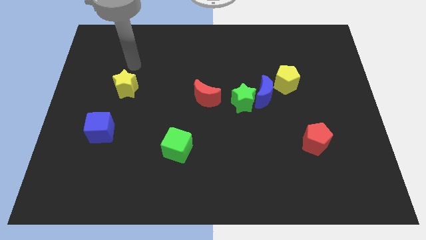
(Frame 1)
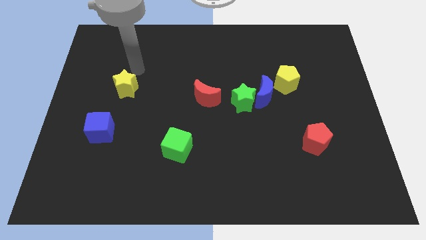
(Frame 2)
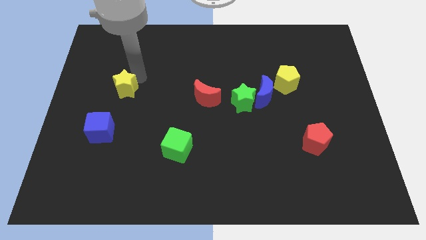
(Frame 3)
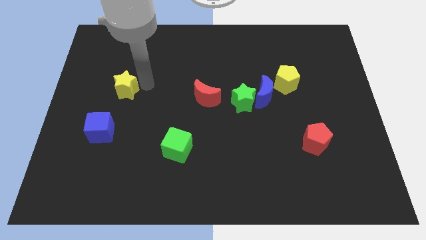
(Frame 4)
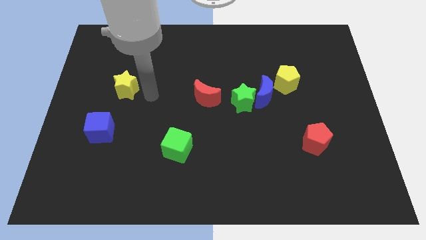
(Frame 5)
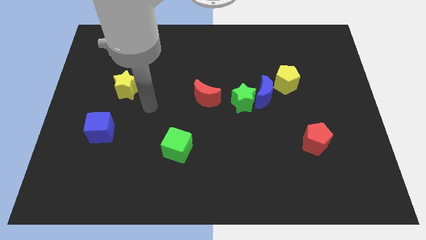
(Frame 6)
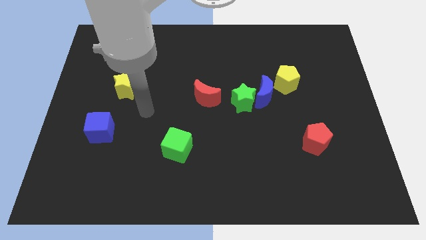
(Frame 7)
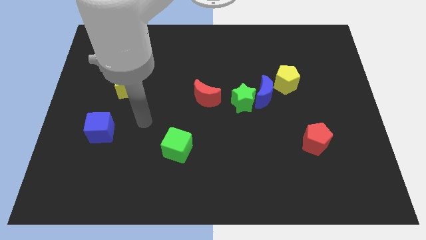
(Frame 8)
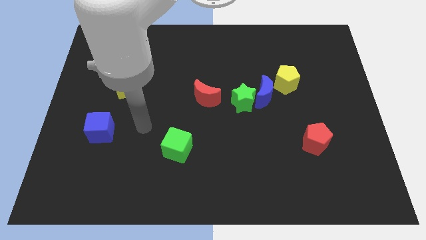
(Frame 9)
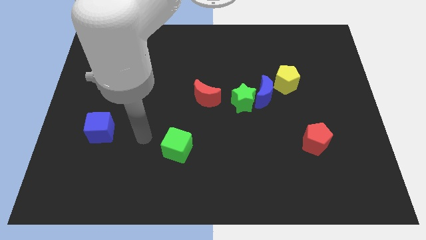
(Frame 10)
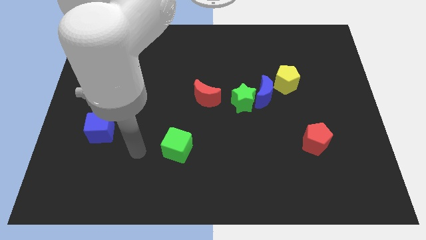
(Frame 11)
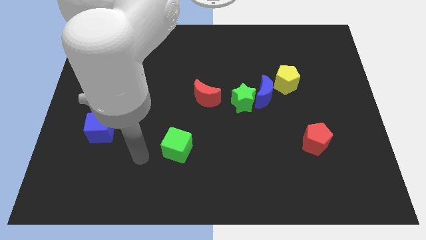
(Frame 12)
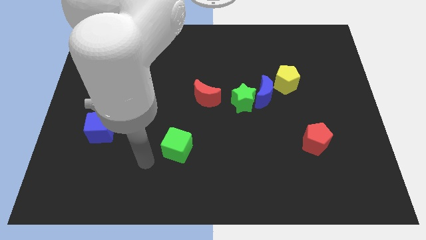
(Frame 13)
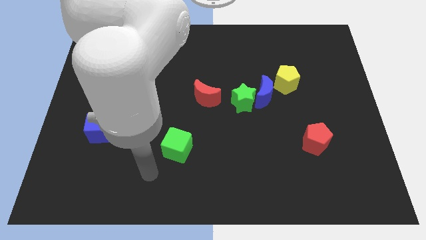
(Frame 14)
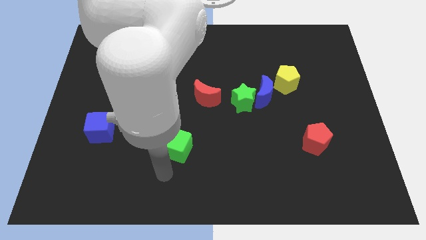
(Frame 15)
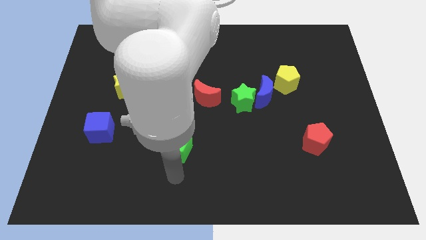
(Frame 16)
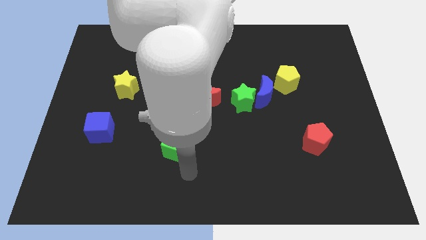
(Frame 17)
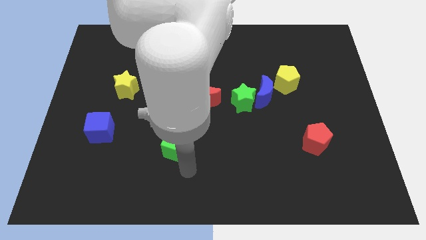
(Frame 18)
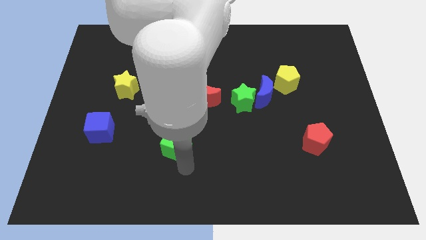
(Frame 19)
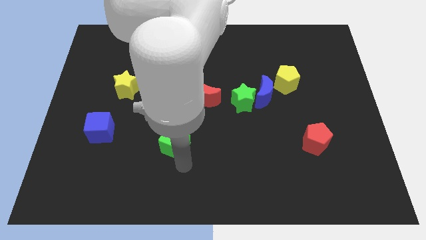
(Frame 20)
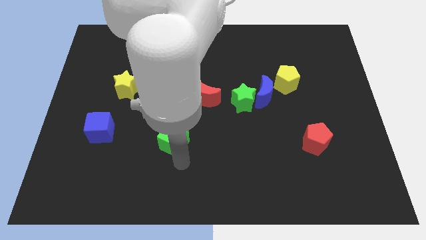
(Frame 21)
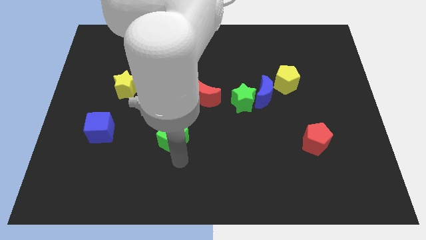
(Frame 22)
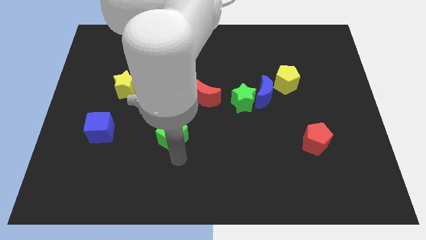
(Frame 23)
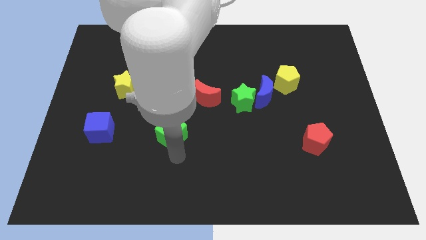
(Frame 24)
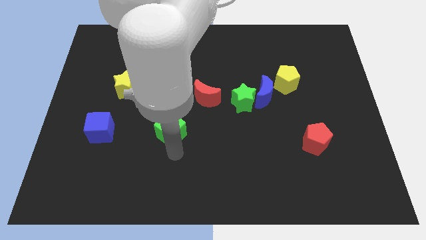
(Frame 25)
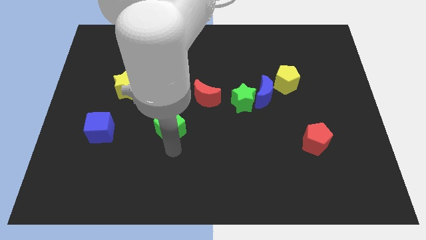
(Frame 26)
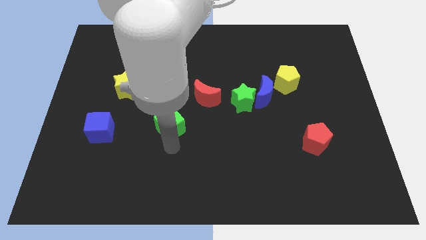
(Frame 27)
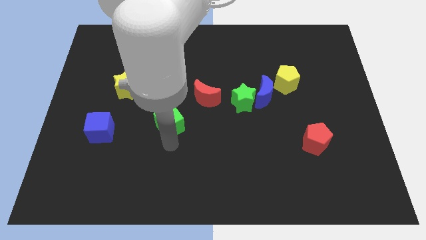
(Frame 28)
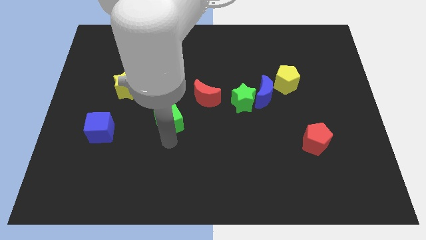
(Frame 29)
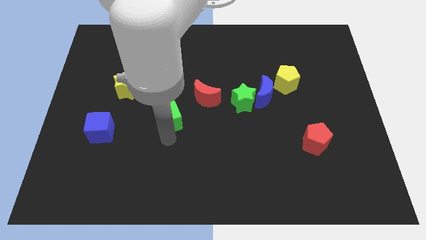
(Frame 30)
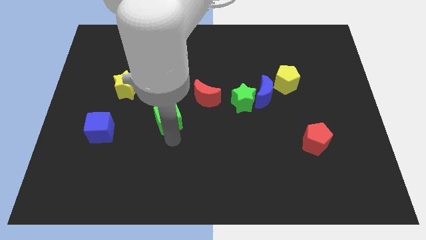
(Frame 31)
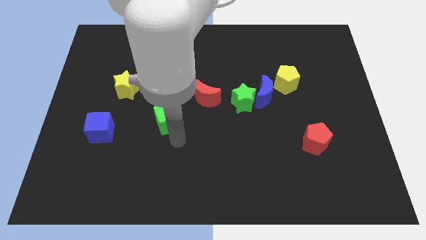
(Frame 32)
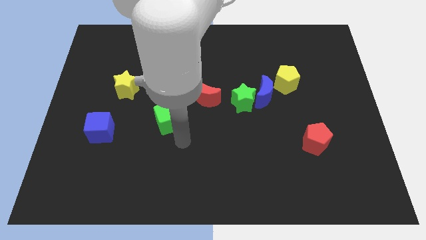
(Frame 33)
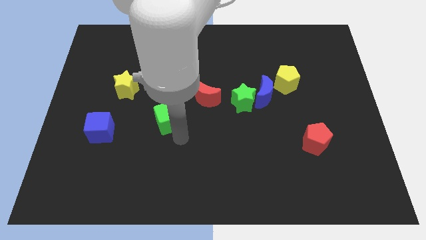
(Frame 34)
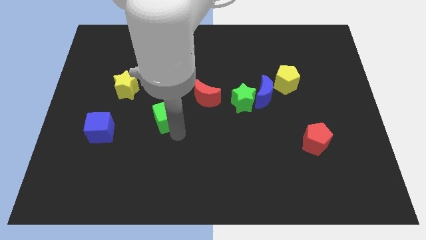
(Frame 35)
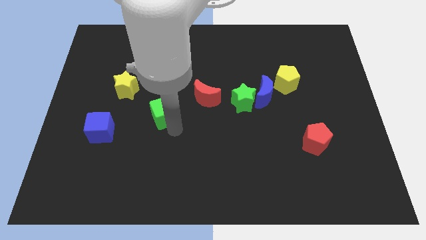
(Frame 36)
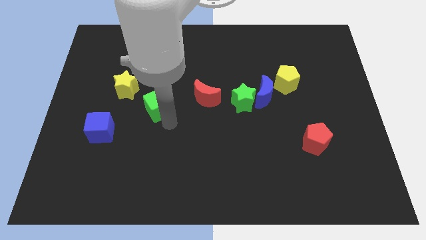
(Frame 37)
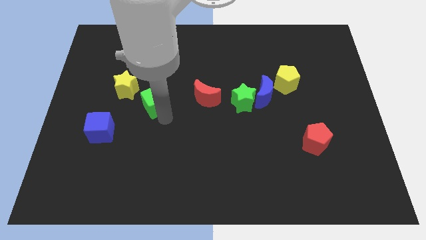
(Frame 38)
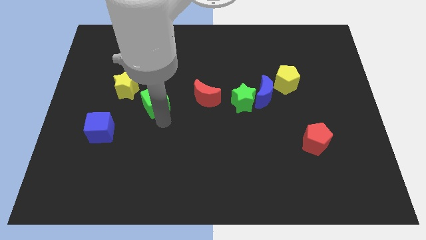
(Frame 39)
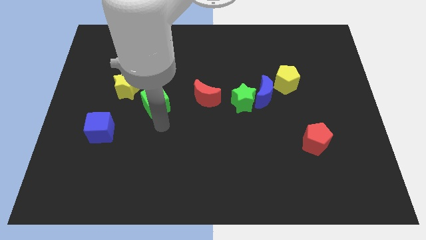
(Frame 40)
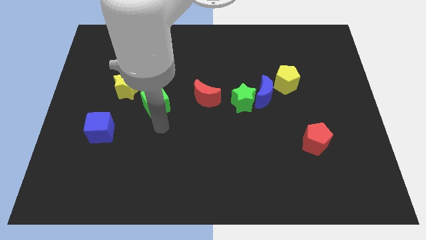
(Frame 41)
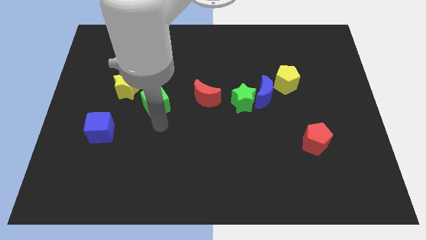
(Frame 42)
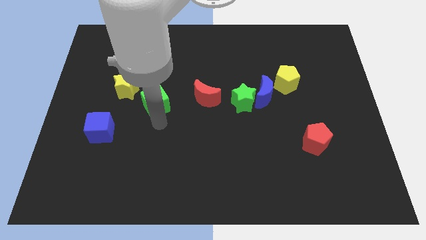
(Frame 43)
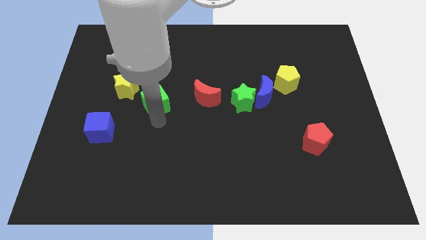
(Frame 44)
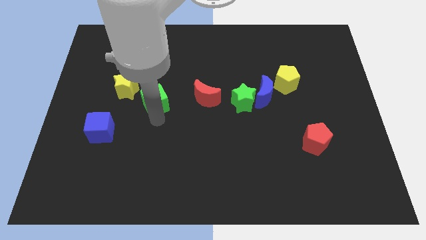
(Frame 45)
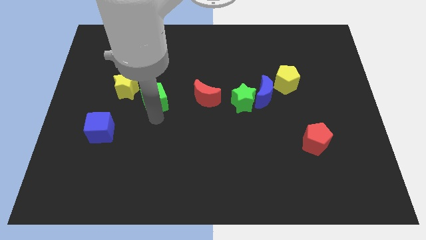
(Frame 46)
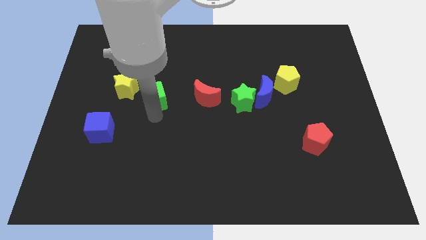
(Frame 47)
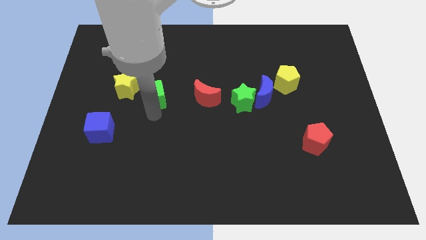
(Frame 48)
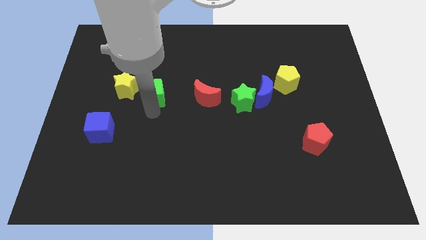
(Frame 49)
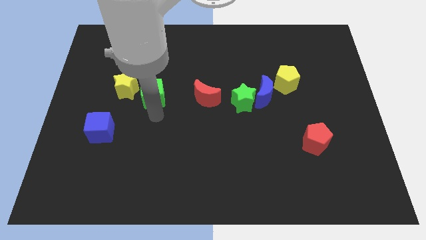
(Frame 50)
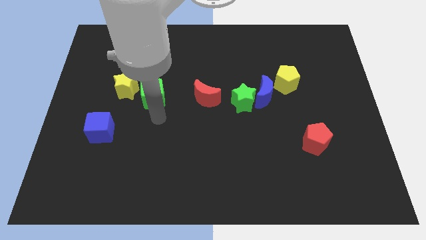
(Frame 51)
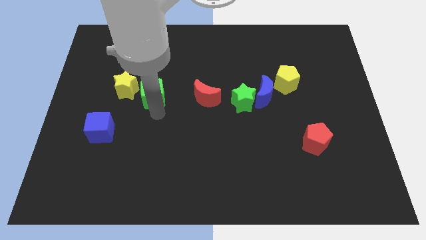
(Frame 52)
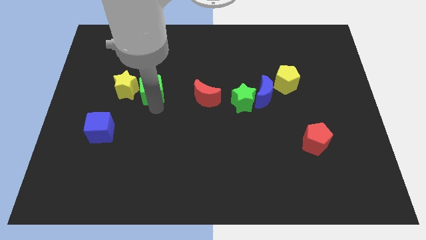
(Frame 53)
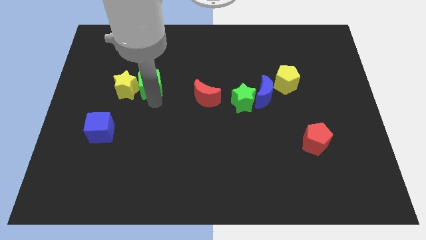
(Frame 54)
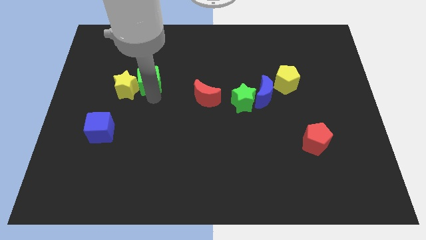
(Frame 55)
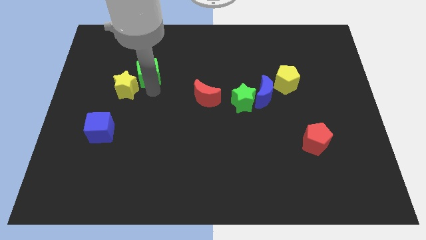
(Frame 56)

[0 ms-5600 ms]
put the green cube to the top of the yellow star
